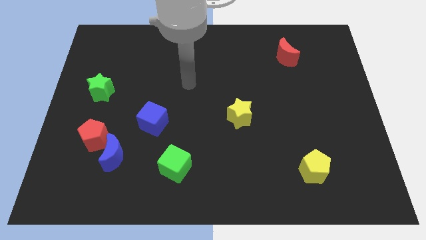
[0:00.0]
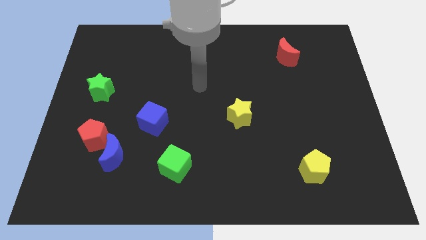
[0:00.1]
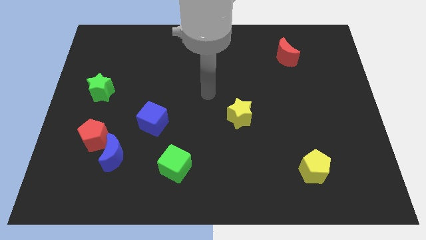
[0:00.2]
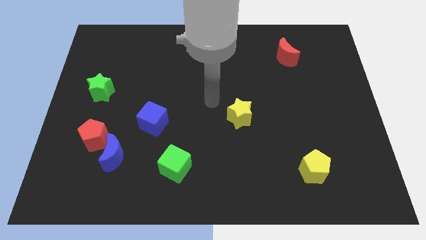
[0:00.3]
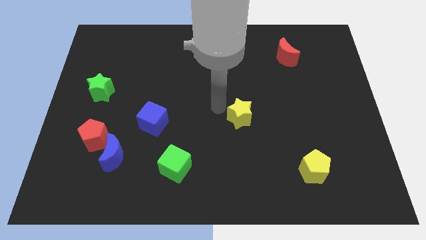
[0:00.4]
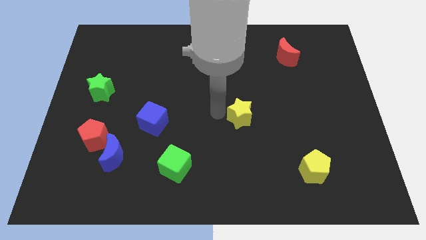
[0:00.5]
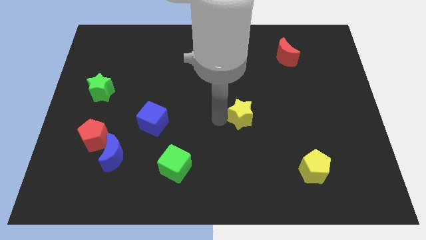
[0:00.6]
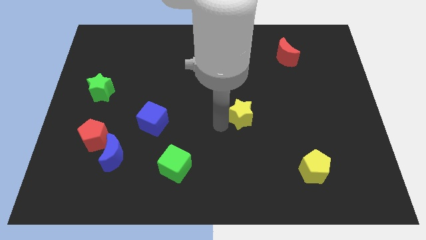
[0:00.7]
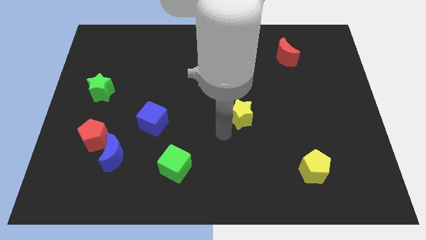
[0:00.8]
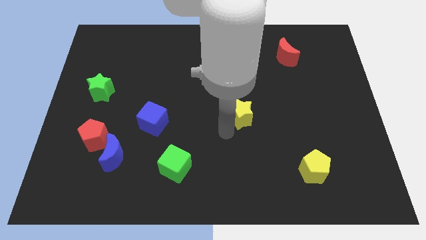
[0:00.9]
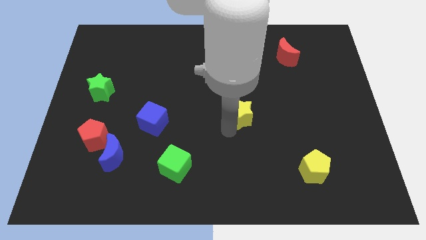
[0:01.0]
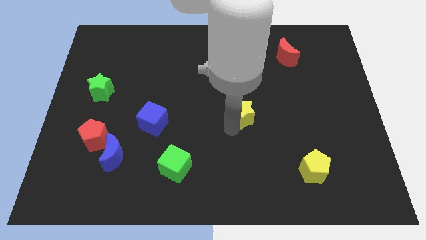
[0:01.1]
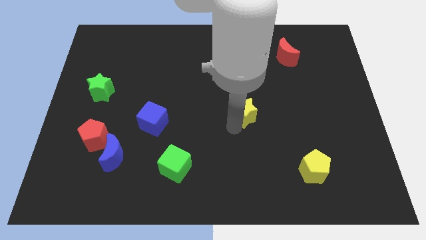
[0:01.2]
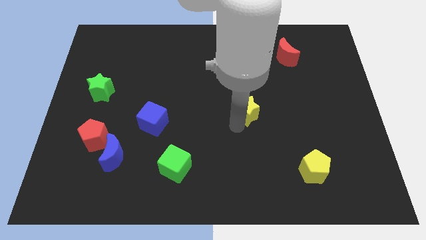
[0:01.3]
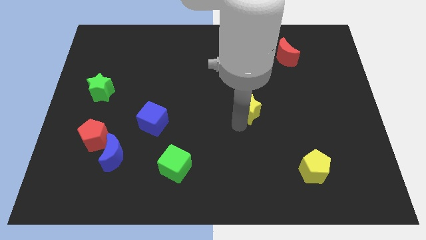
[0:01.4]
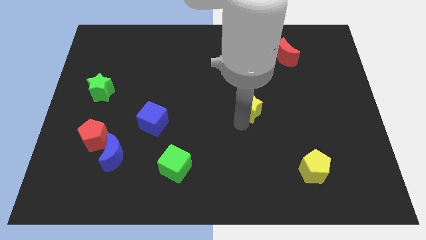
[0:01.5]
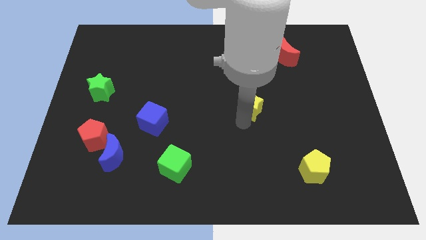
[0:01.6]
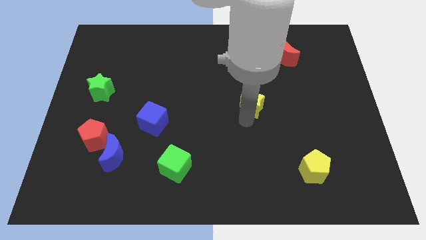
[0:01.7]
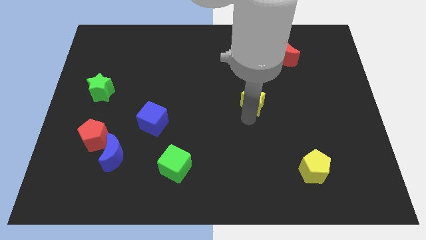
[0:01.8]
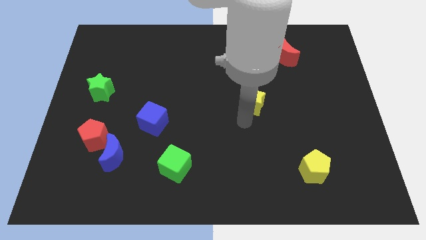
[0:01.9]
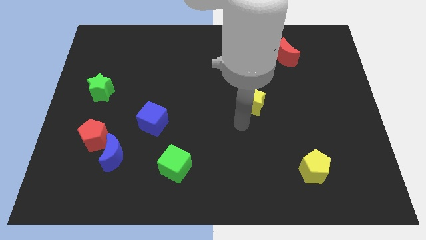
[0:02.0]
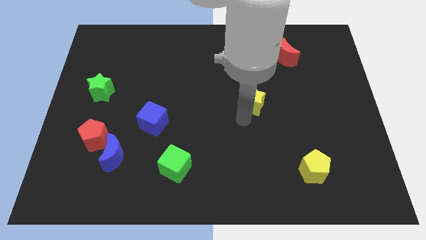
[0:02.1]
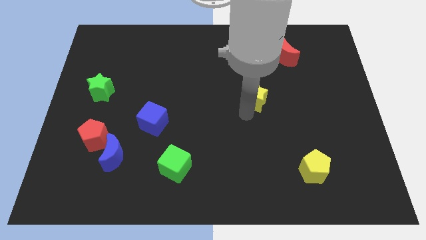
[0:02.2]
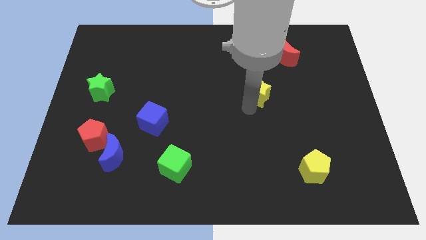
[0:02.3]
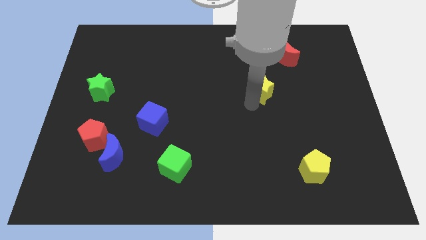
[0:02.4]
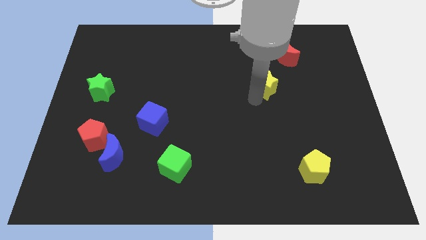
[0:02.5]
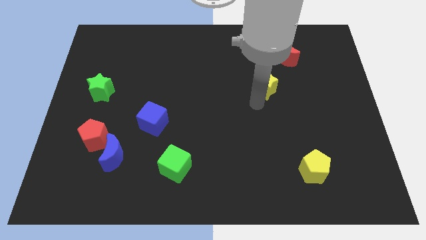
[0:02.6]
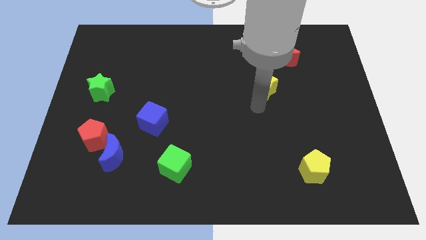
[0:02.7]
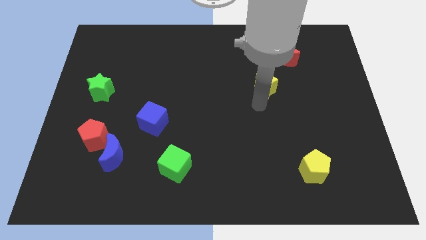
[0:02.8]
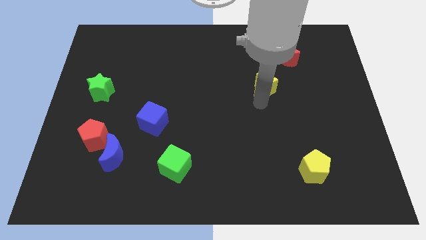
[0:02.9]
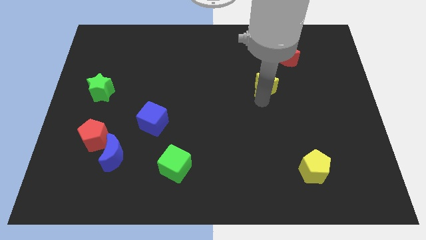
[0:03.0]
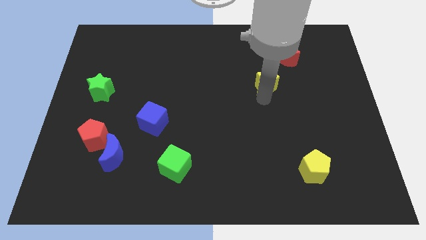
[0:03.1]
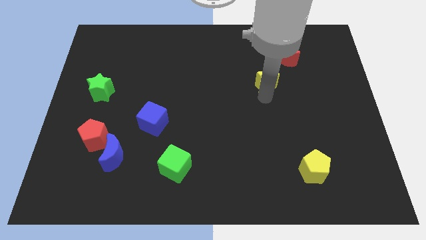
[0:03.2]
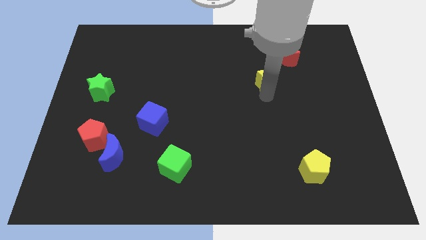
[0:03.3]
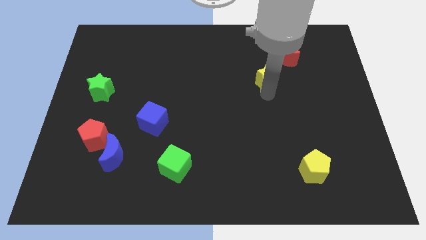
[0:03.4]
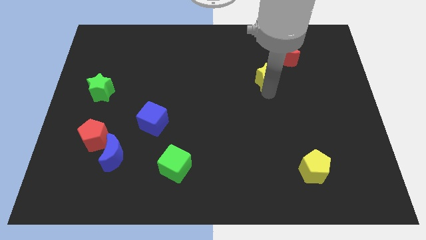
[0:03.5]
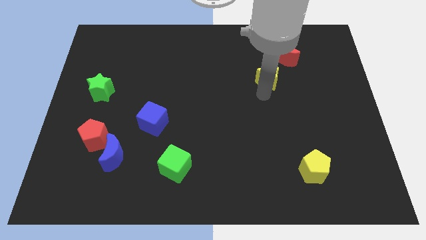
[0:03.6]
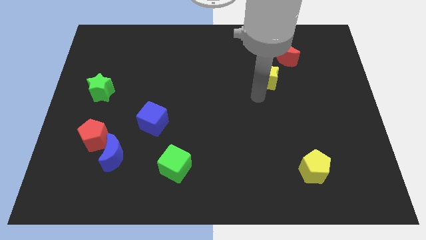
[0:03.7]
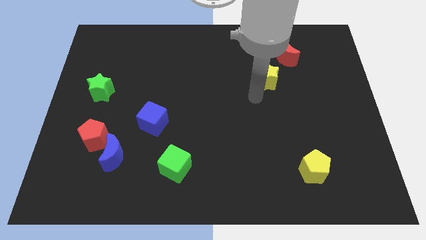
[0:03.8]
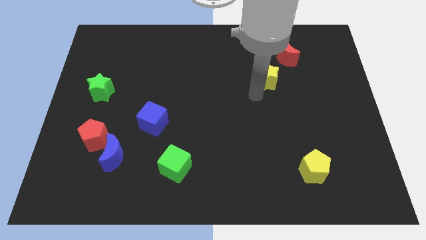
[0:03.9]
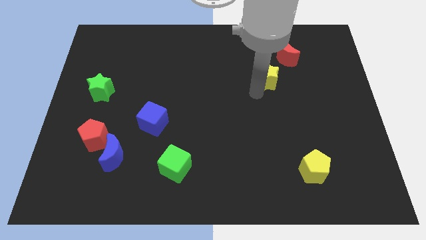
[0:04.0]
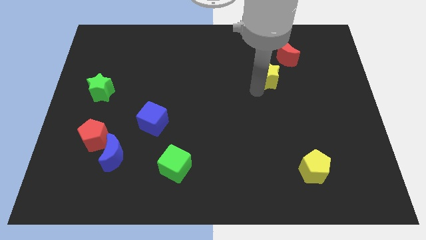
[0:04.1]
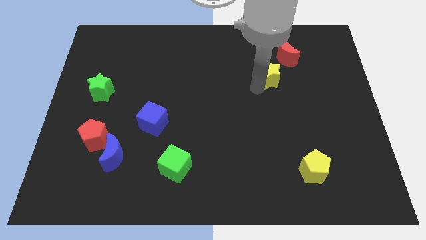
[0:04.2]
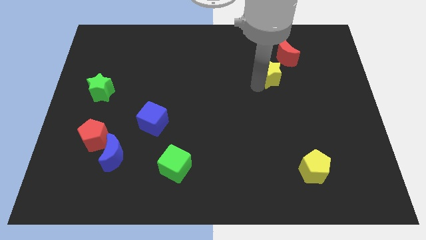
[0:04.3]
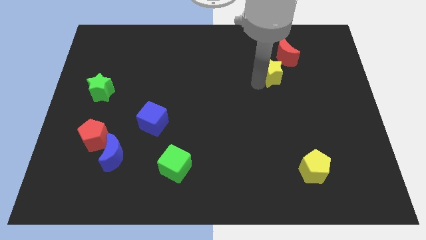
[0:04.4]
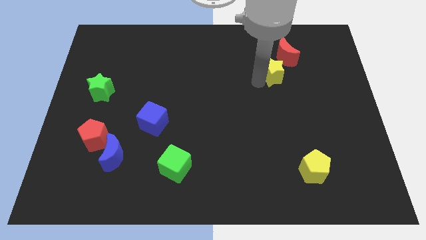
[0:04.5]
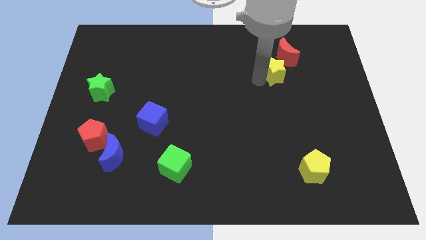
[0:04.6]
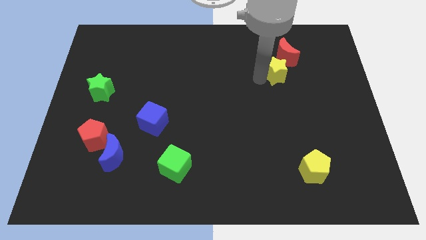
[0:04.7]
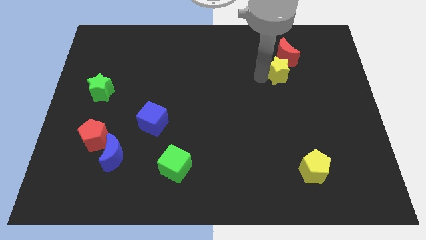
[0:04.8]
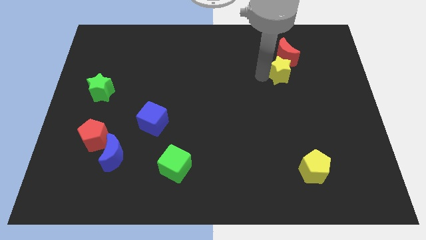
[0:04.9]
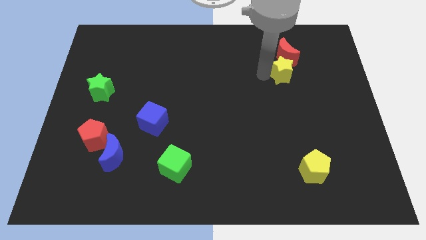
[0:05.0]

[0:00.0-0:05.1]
slide the yellow star towards the red moon

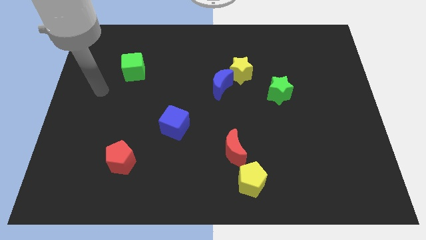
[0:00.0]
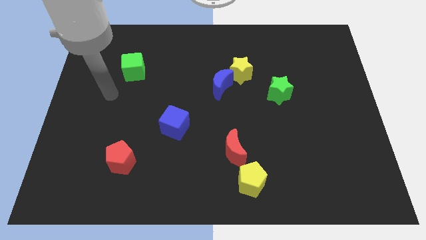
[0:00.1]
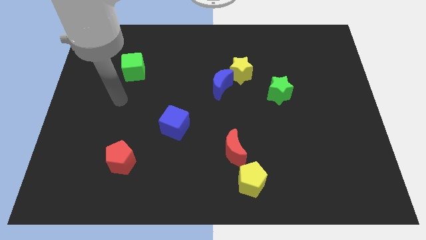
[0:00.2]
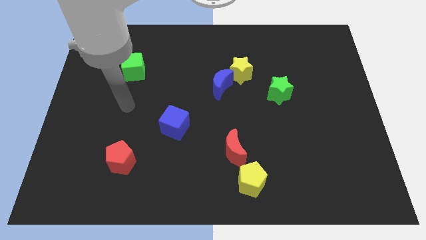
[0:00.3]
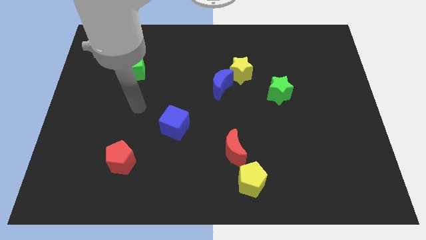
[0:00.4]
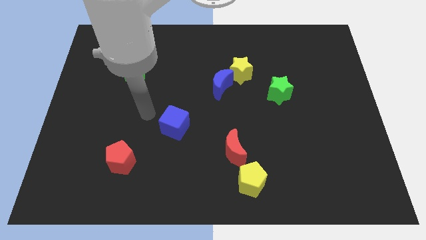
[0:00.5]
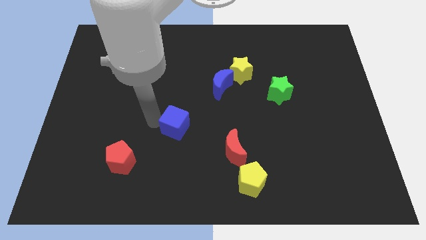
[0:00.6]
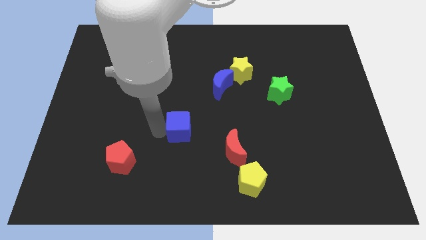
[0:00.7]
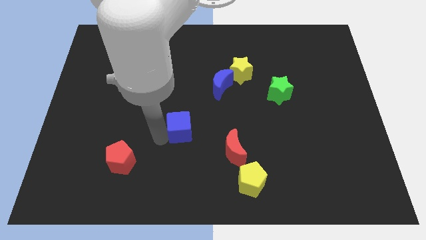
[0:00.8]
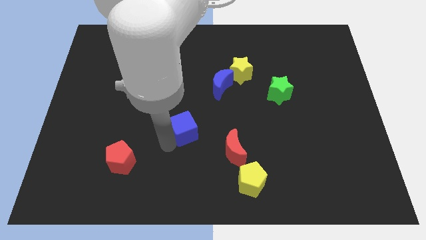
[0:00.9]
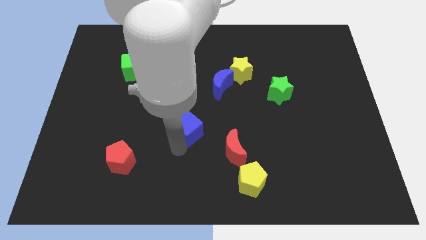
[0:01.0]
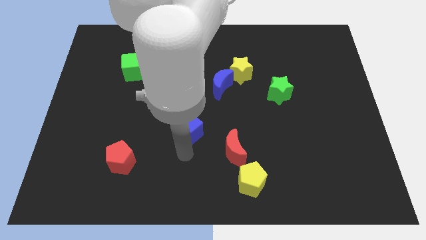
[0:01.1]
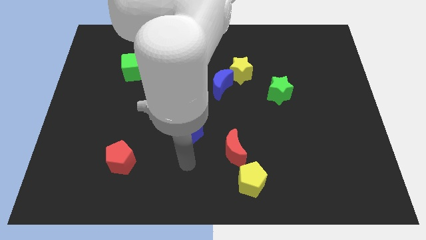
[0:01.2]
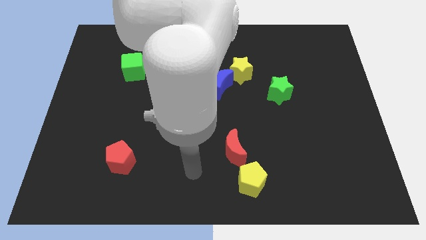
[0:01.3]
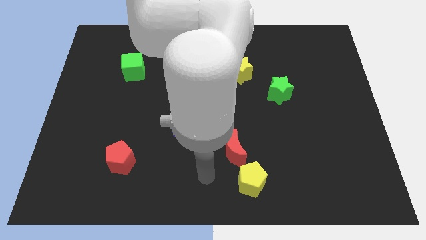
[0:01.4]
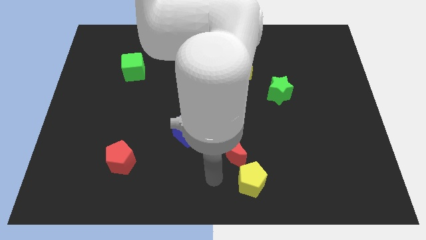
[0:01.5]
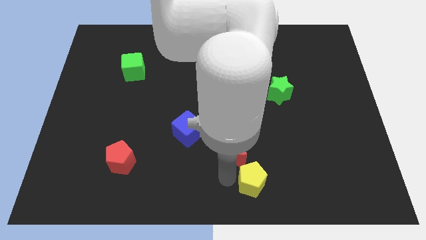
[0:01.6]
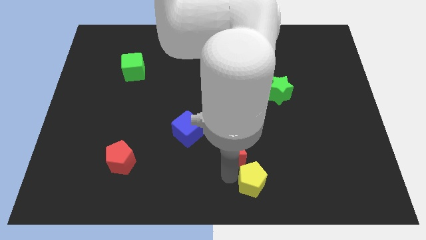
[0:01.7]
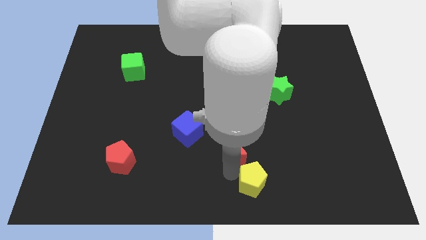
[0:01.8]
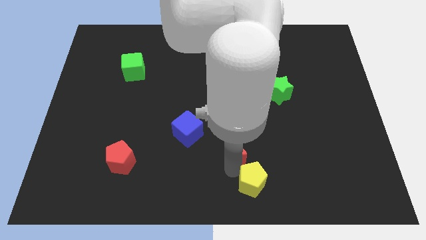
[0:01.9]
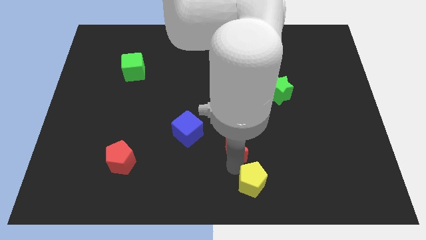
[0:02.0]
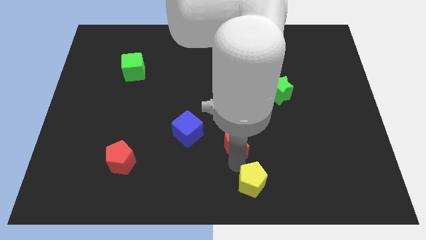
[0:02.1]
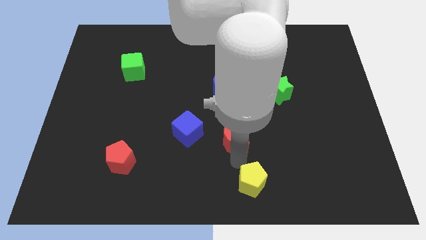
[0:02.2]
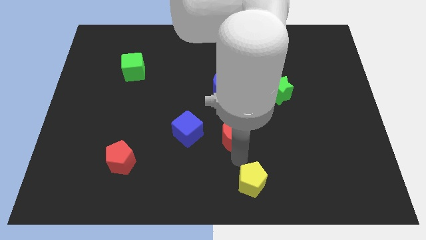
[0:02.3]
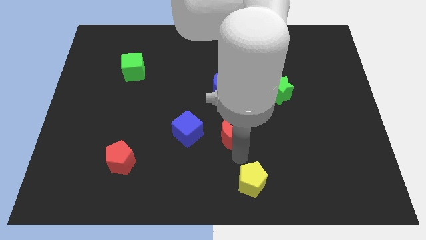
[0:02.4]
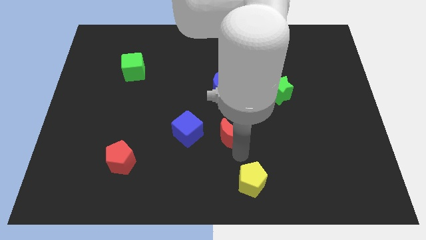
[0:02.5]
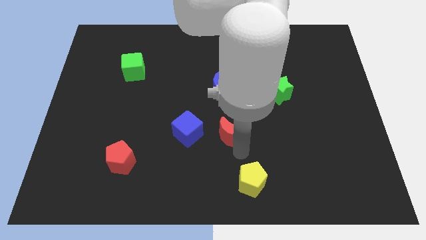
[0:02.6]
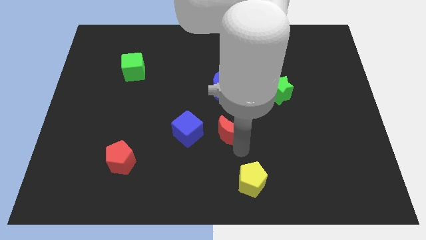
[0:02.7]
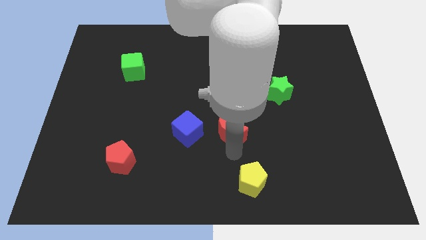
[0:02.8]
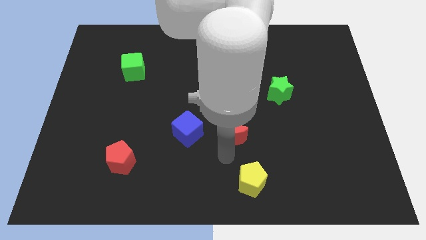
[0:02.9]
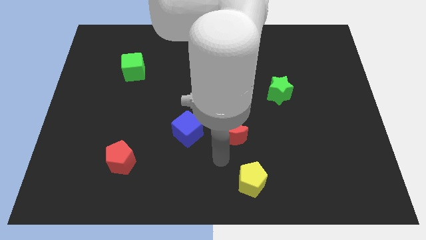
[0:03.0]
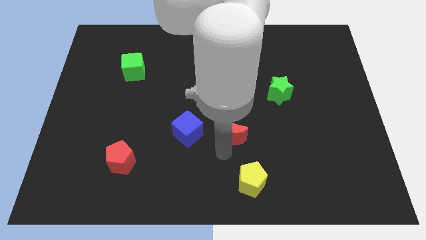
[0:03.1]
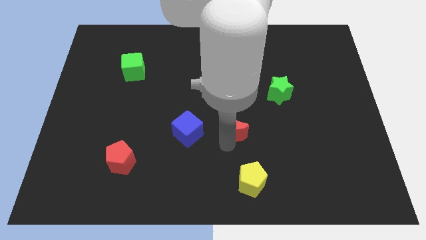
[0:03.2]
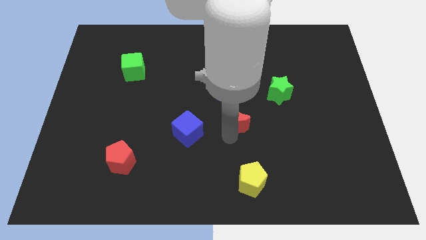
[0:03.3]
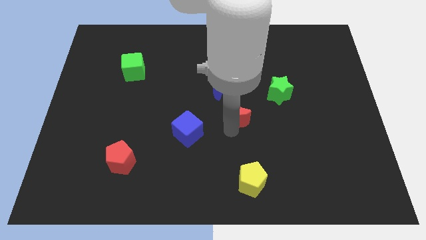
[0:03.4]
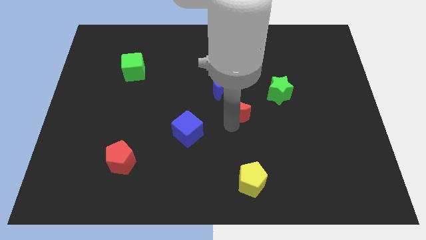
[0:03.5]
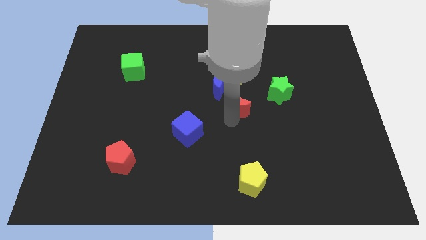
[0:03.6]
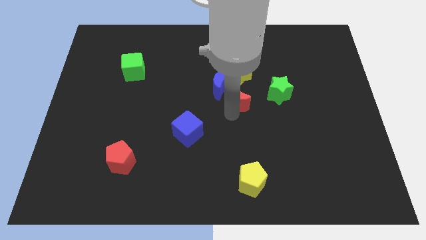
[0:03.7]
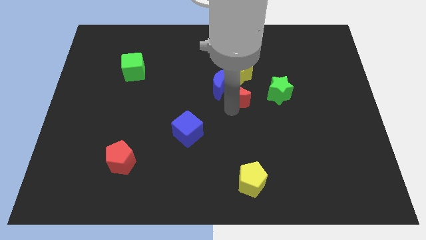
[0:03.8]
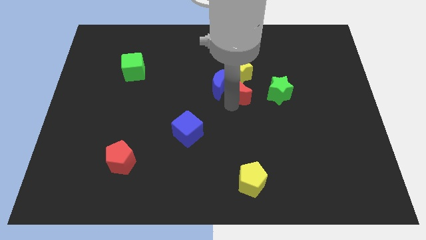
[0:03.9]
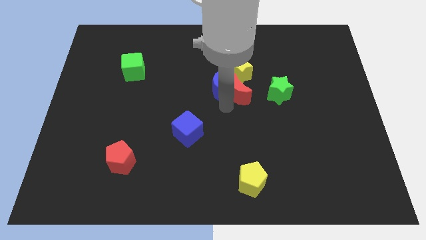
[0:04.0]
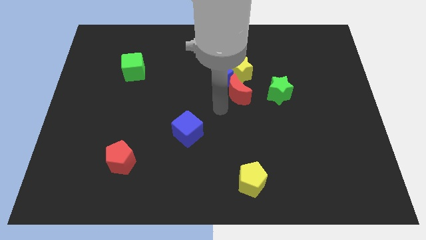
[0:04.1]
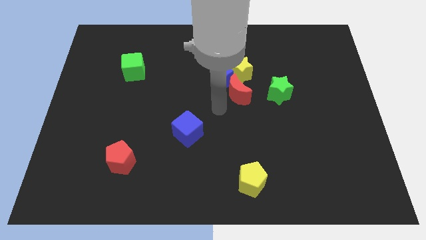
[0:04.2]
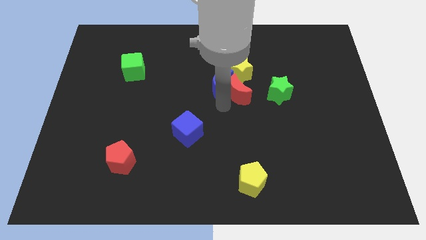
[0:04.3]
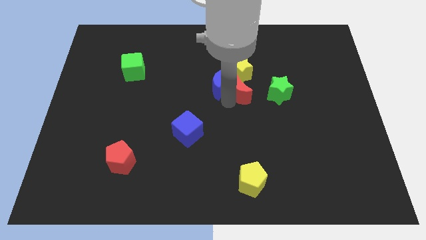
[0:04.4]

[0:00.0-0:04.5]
move the red moon to the yellow star
